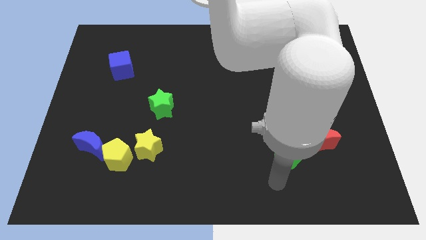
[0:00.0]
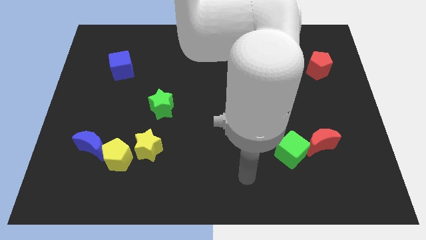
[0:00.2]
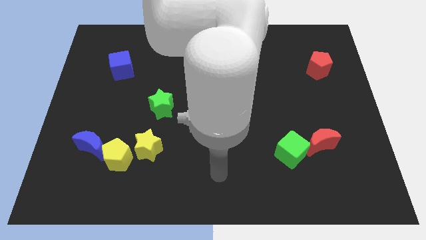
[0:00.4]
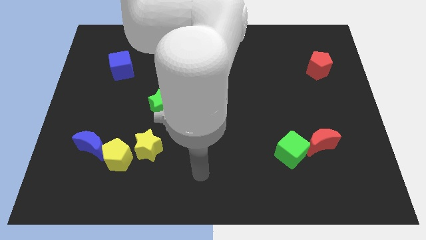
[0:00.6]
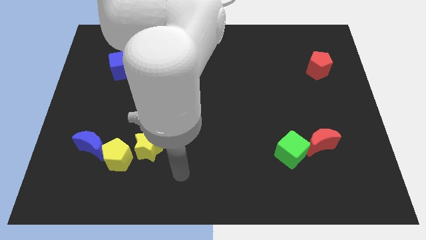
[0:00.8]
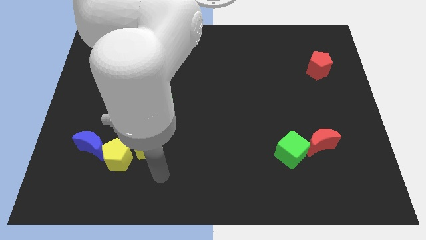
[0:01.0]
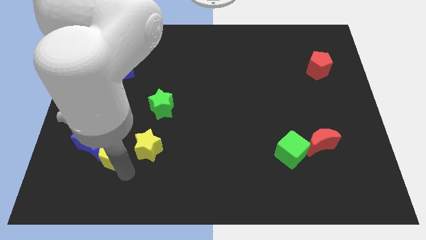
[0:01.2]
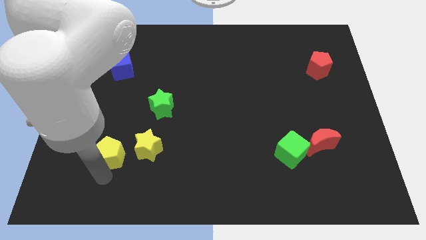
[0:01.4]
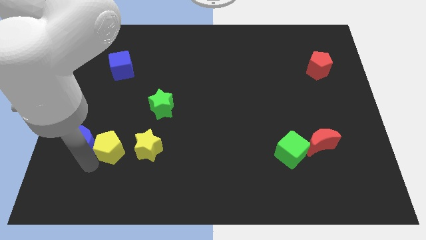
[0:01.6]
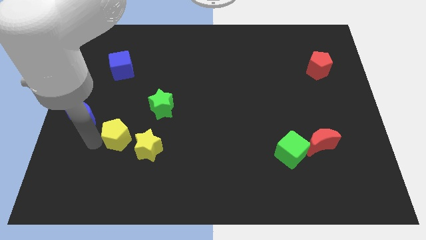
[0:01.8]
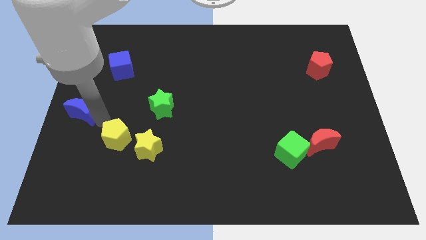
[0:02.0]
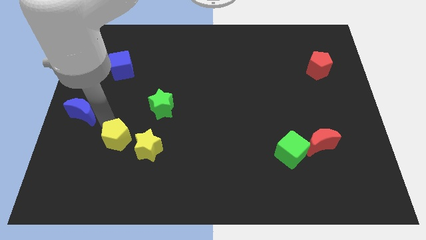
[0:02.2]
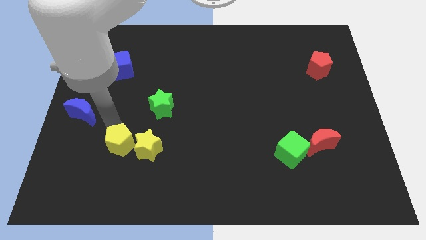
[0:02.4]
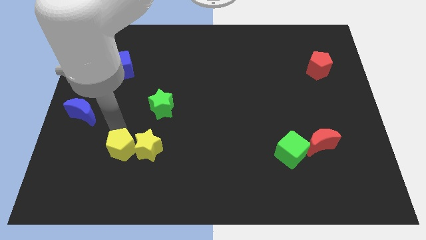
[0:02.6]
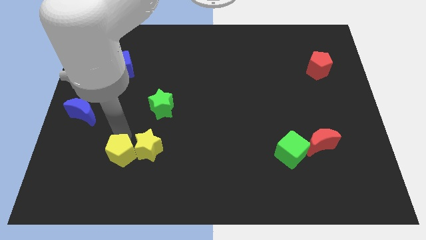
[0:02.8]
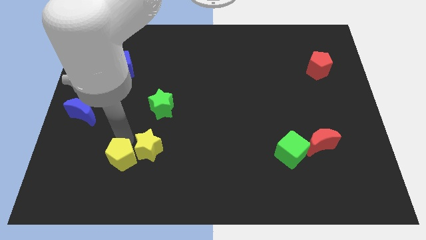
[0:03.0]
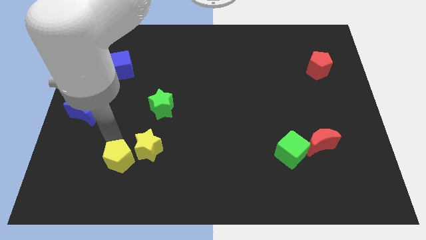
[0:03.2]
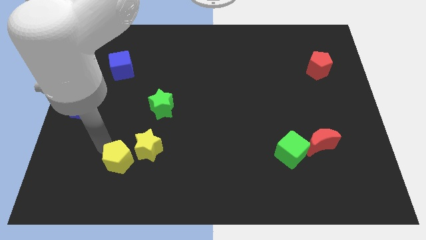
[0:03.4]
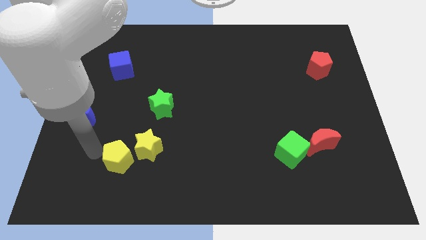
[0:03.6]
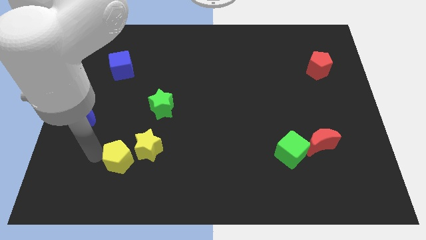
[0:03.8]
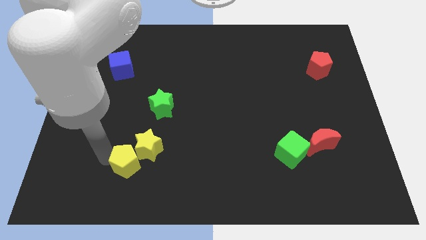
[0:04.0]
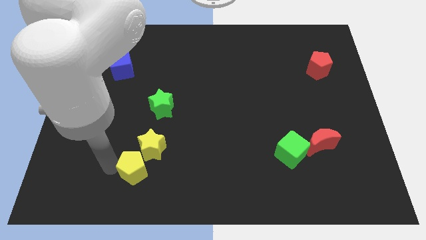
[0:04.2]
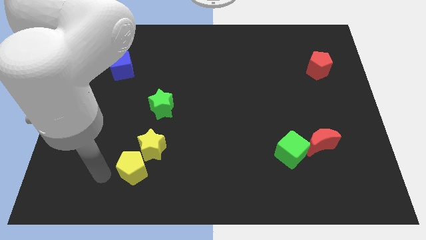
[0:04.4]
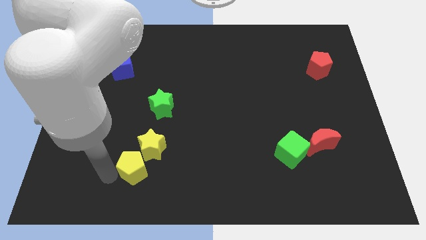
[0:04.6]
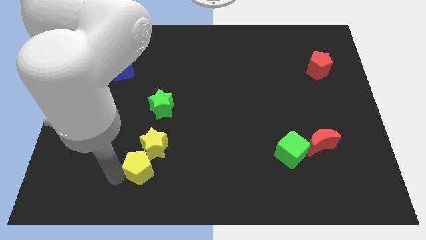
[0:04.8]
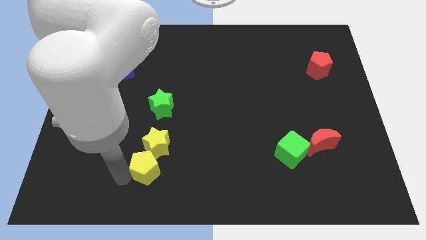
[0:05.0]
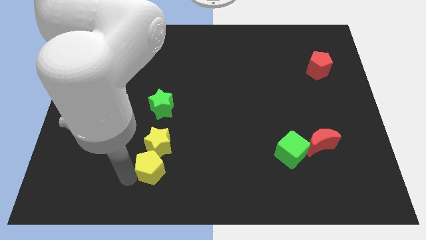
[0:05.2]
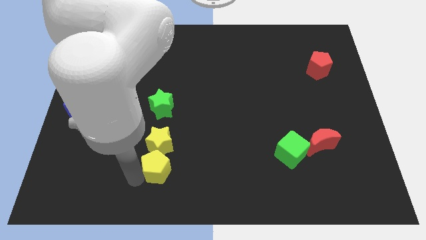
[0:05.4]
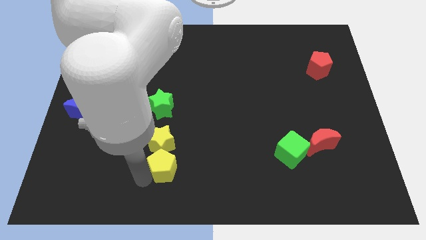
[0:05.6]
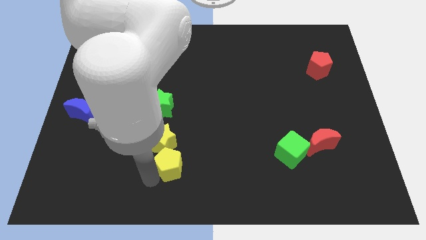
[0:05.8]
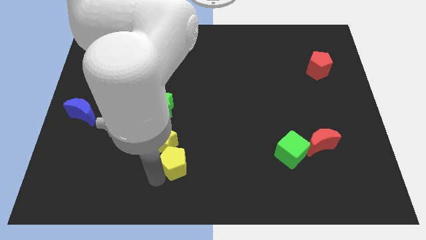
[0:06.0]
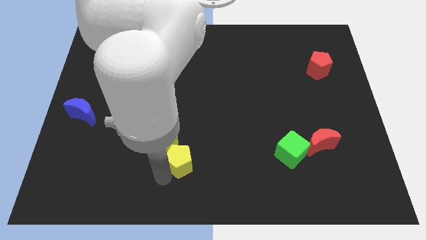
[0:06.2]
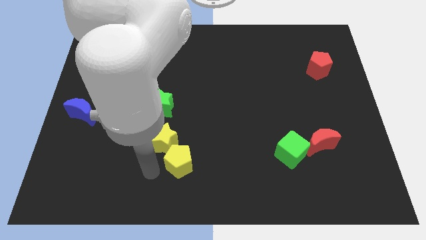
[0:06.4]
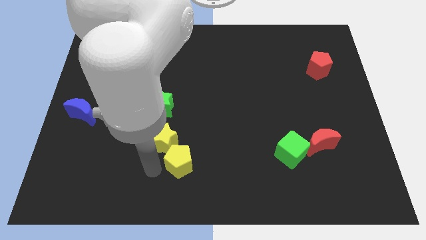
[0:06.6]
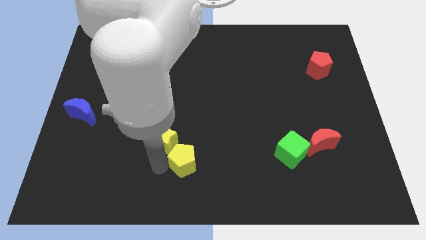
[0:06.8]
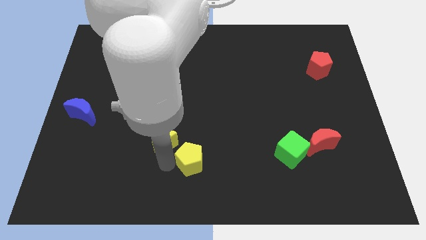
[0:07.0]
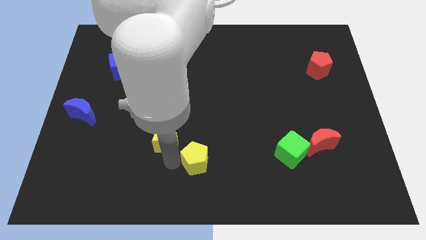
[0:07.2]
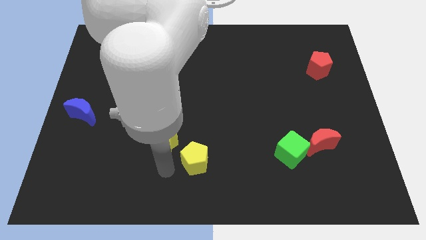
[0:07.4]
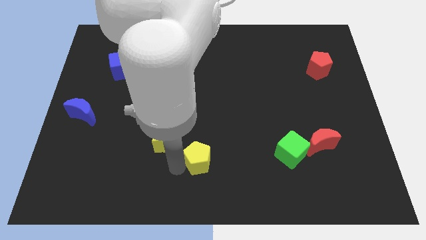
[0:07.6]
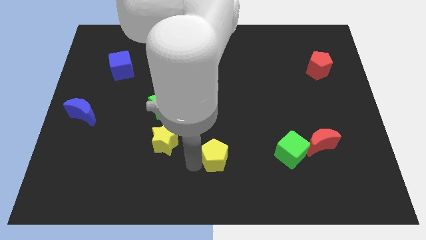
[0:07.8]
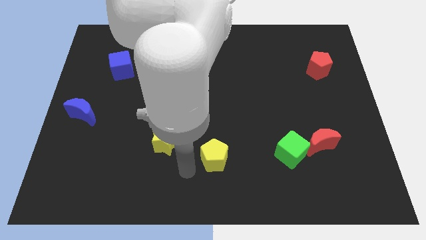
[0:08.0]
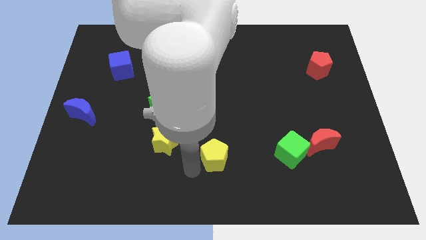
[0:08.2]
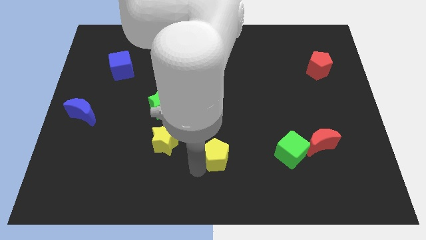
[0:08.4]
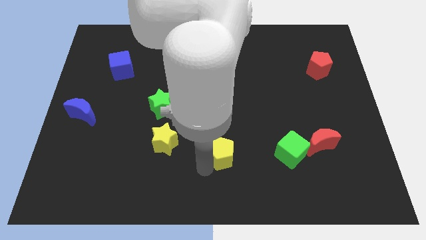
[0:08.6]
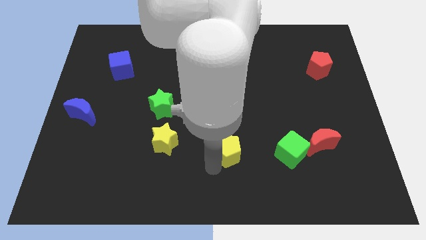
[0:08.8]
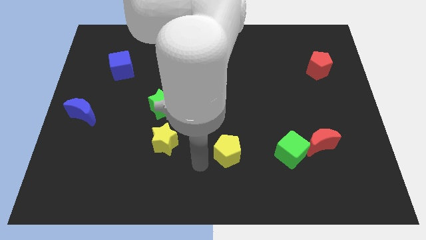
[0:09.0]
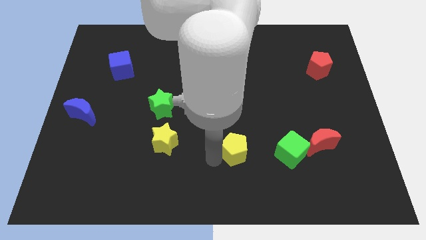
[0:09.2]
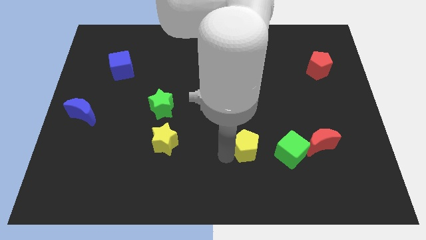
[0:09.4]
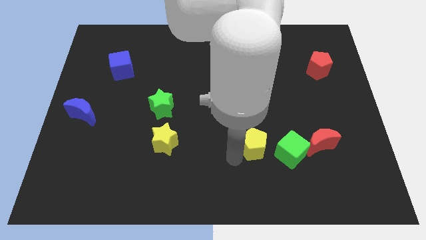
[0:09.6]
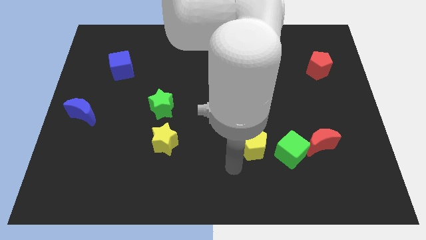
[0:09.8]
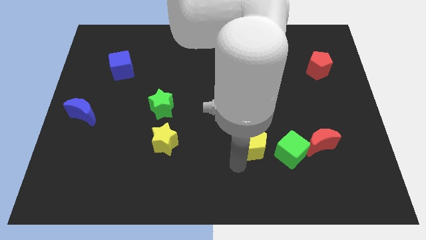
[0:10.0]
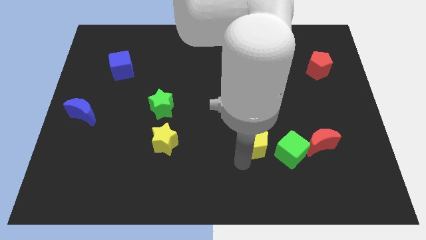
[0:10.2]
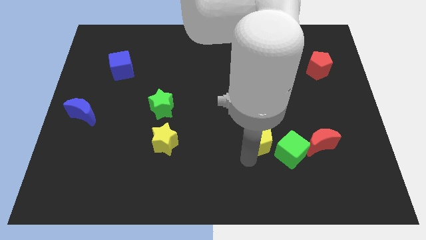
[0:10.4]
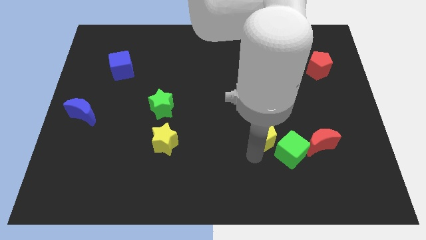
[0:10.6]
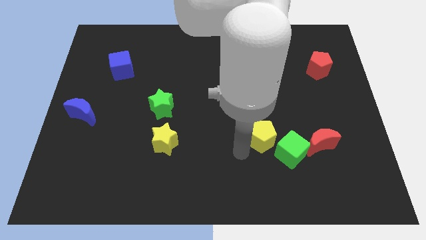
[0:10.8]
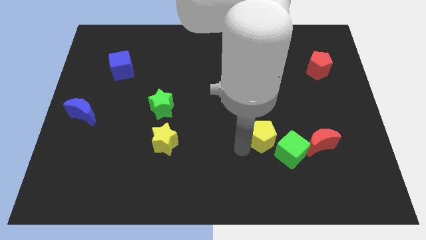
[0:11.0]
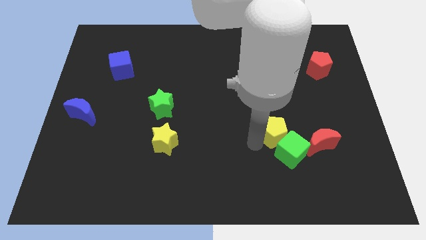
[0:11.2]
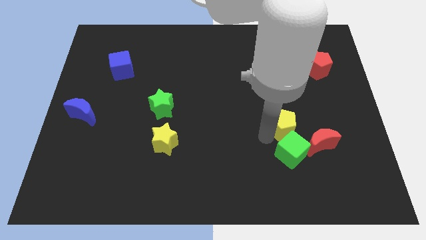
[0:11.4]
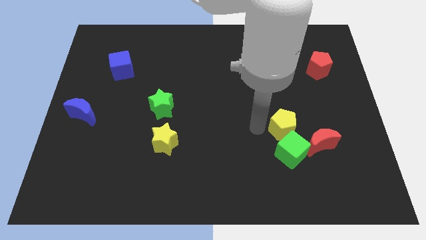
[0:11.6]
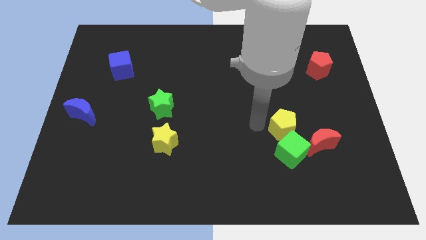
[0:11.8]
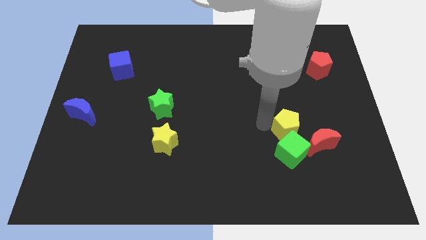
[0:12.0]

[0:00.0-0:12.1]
push the yellow pentagon to the top right of the green cube

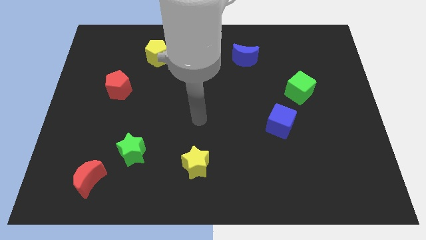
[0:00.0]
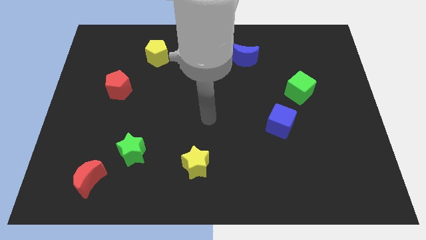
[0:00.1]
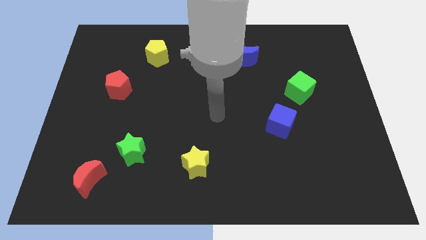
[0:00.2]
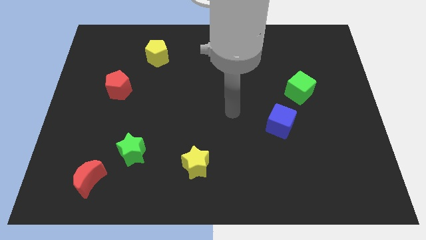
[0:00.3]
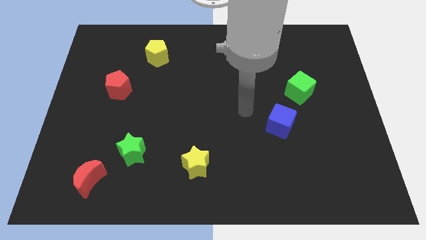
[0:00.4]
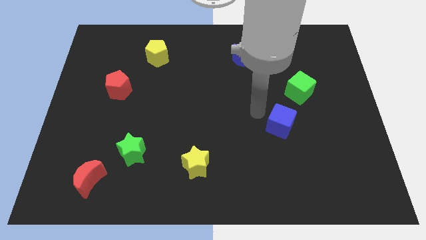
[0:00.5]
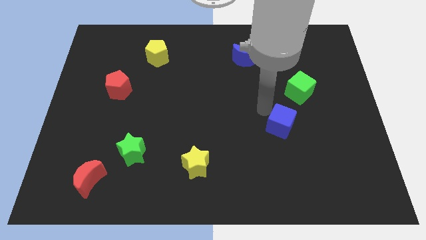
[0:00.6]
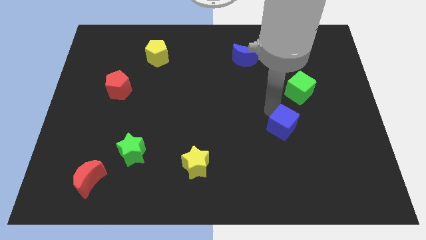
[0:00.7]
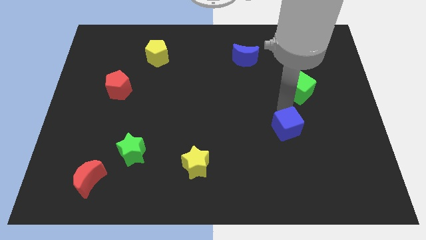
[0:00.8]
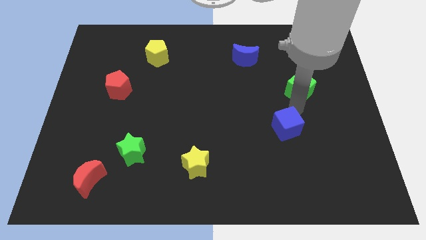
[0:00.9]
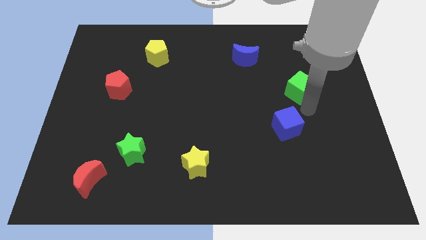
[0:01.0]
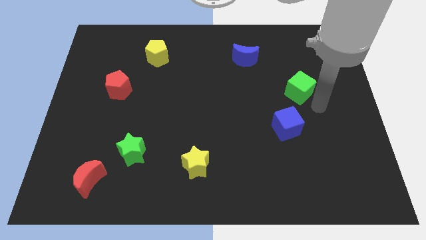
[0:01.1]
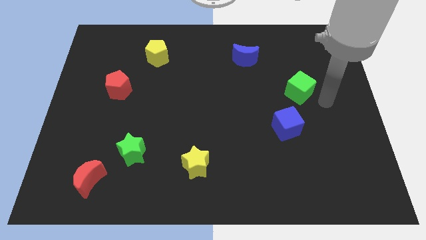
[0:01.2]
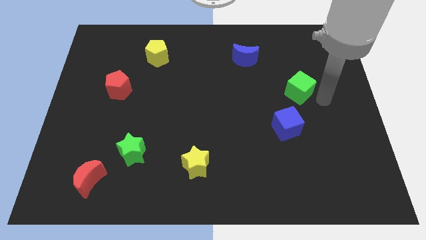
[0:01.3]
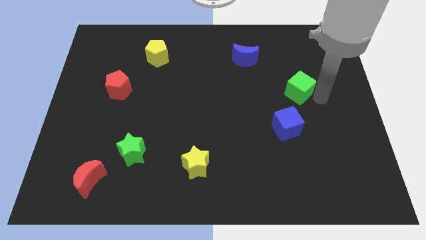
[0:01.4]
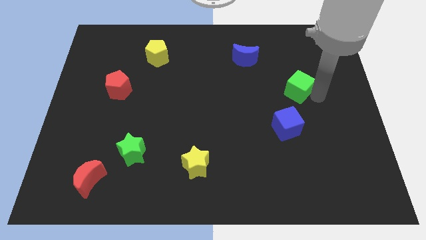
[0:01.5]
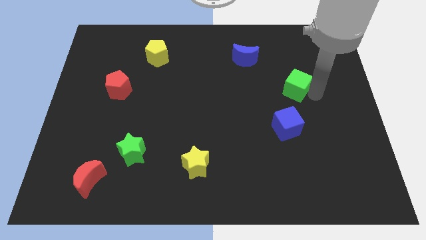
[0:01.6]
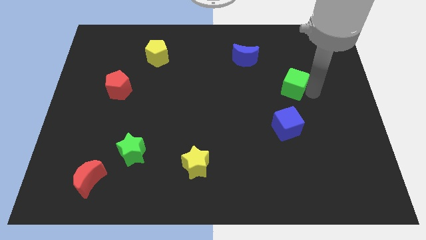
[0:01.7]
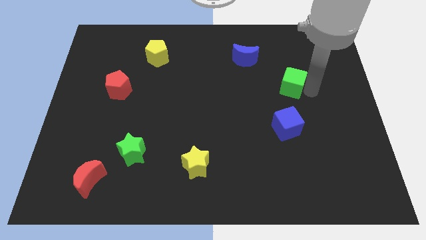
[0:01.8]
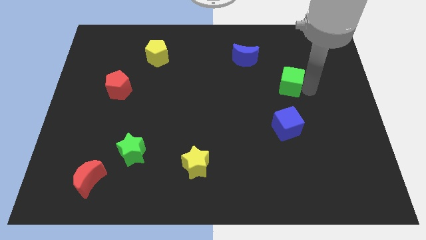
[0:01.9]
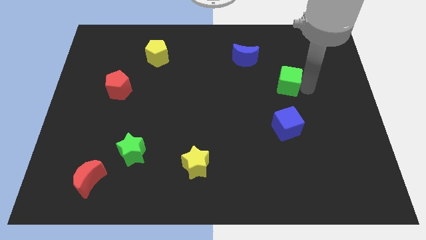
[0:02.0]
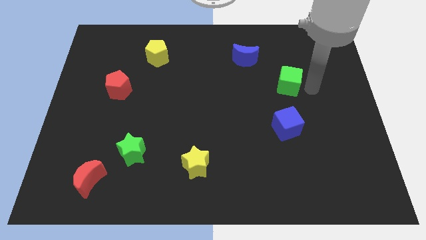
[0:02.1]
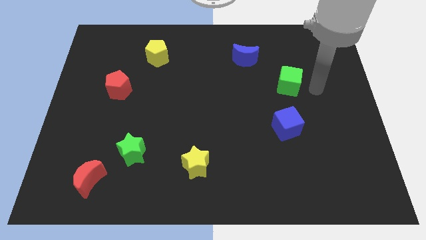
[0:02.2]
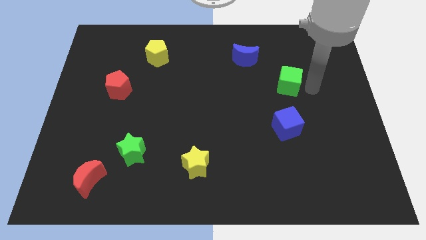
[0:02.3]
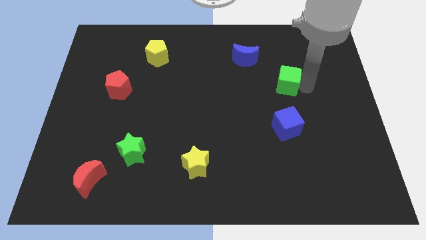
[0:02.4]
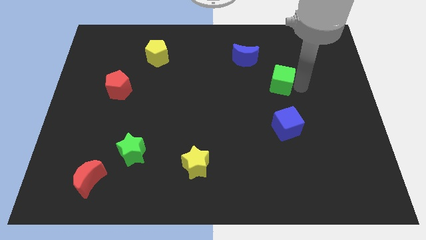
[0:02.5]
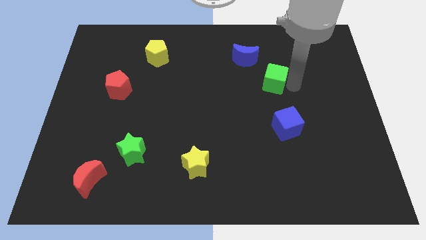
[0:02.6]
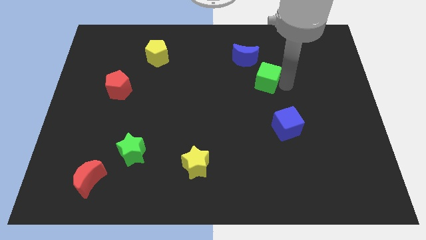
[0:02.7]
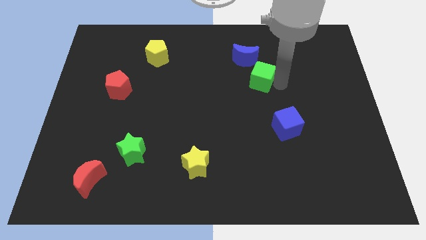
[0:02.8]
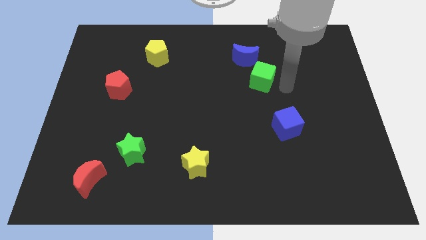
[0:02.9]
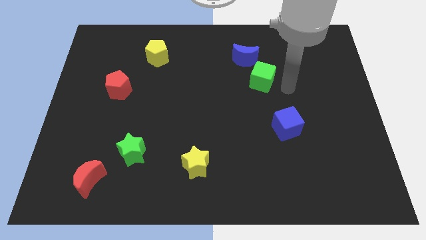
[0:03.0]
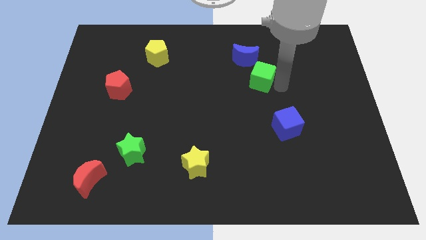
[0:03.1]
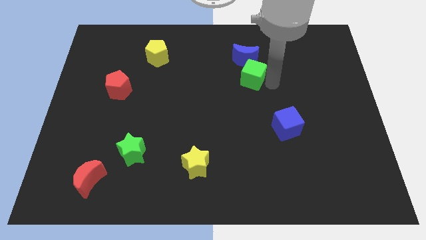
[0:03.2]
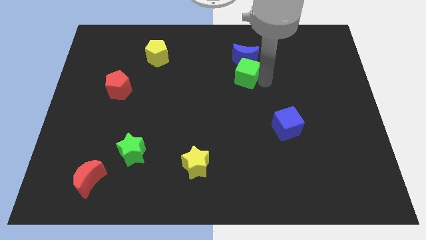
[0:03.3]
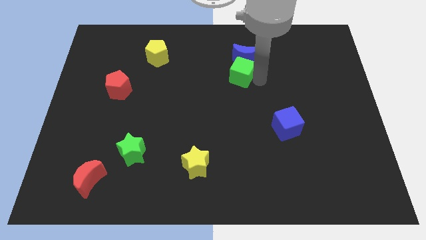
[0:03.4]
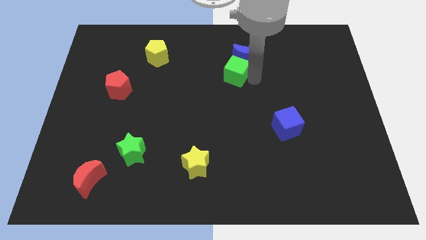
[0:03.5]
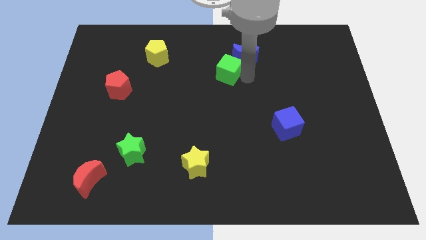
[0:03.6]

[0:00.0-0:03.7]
push the green cube just left of the blue moon
